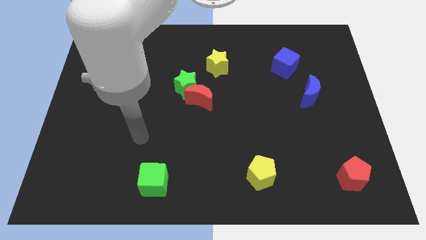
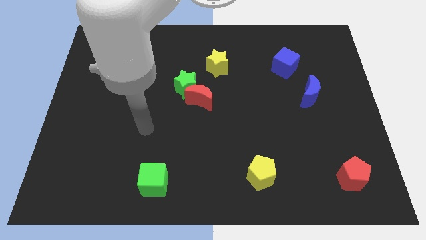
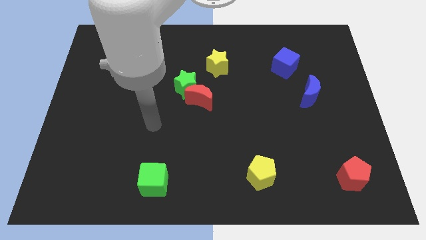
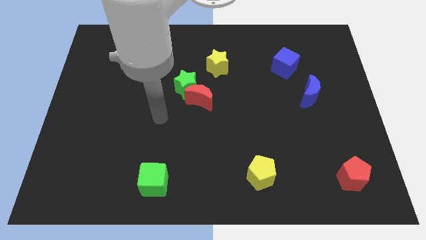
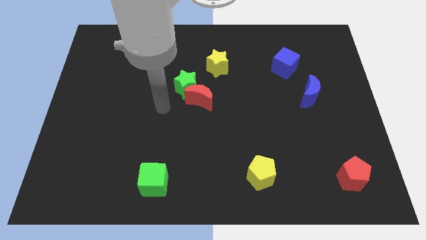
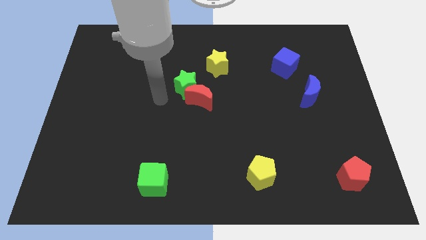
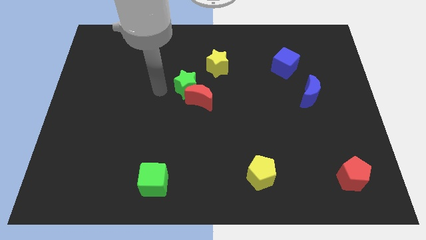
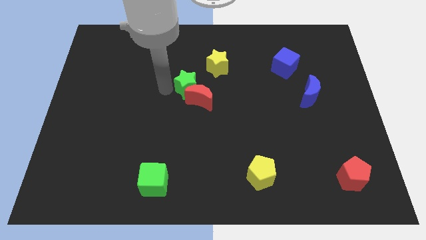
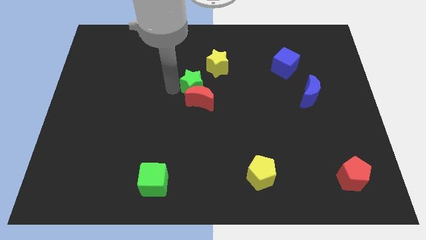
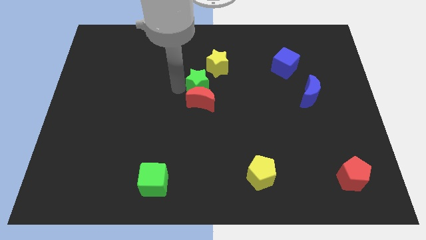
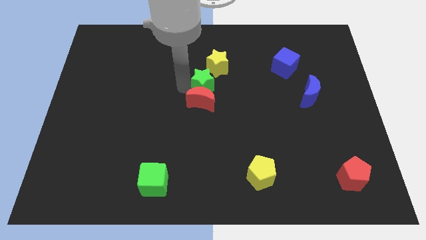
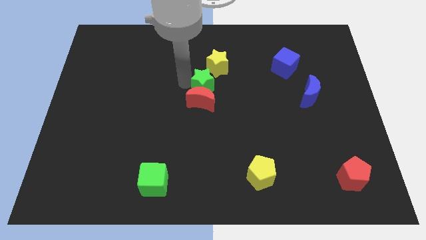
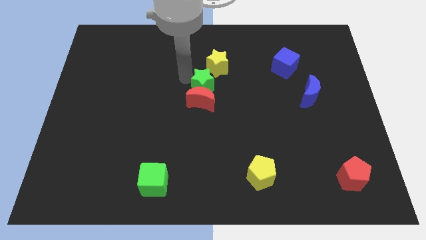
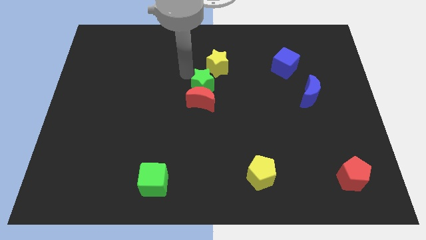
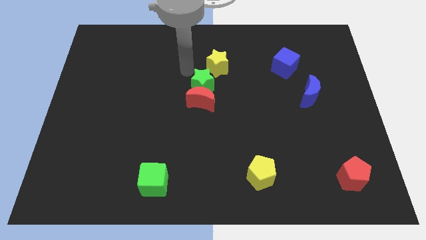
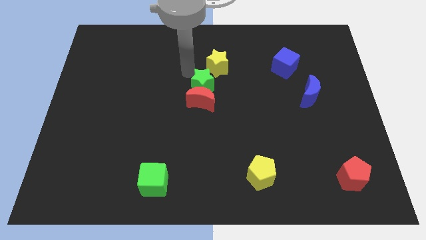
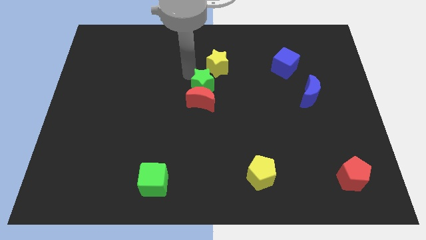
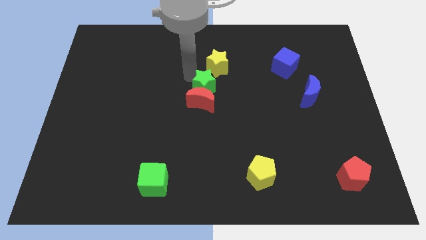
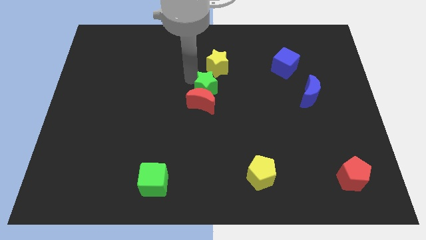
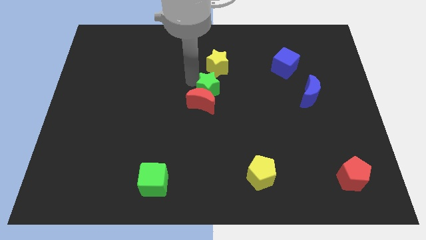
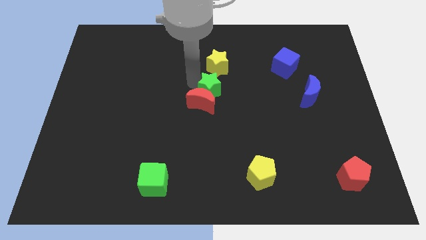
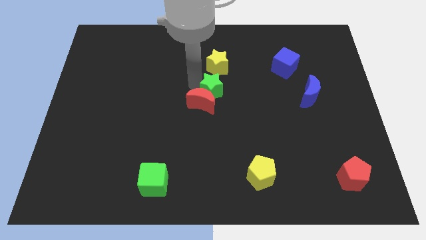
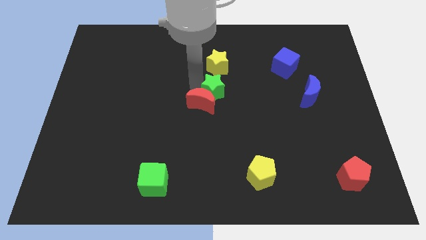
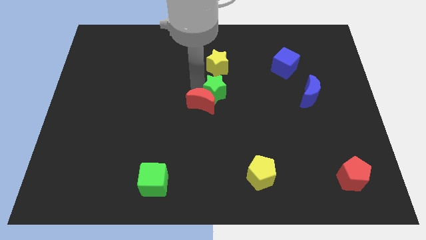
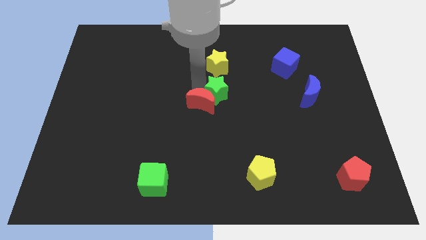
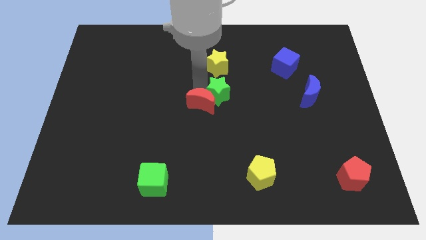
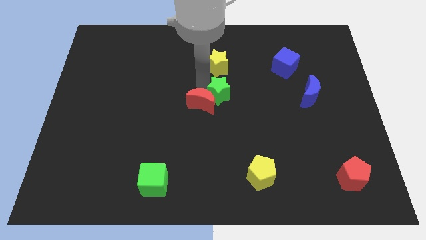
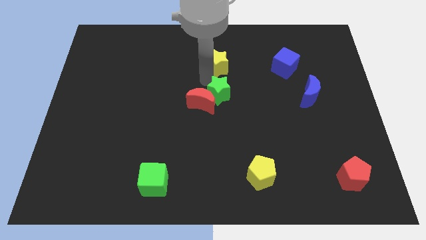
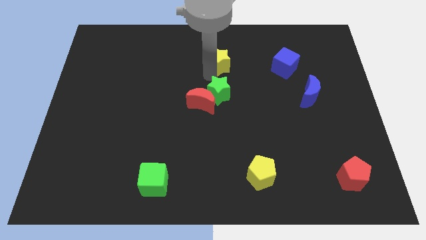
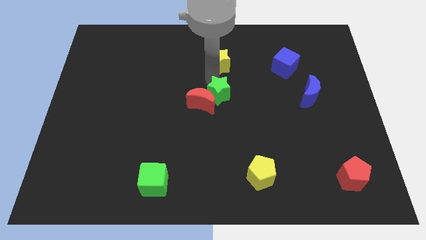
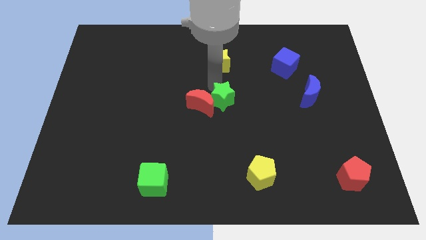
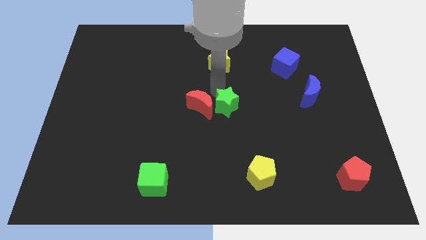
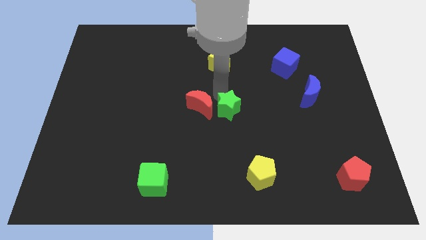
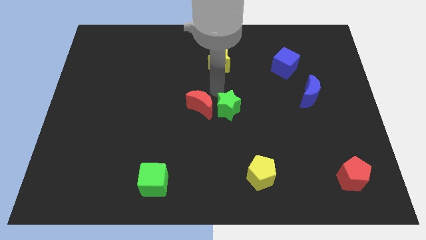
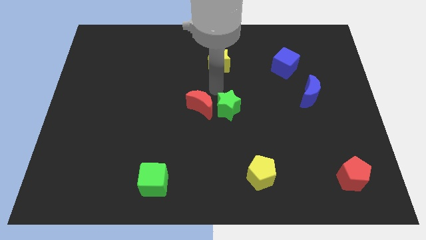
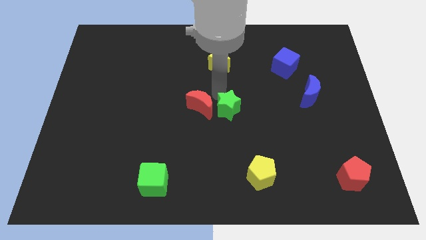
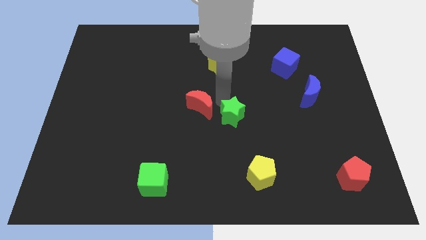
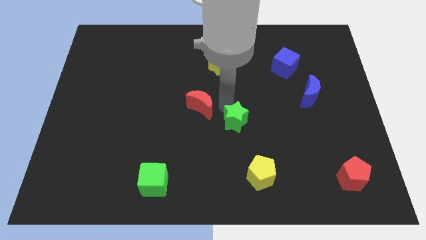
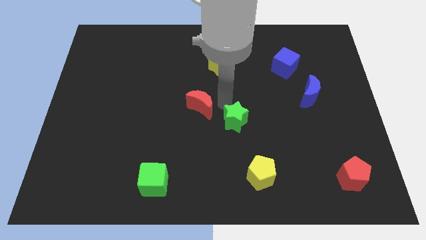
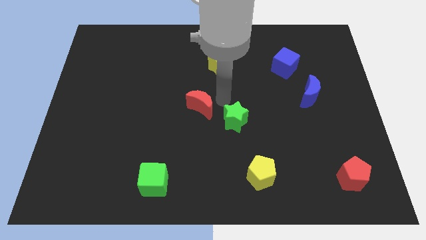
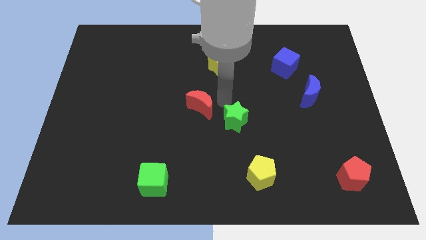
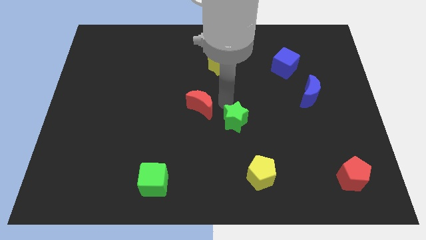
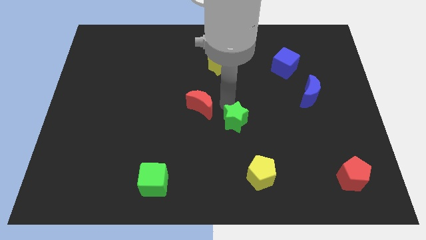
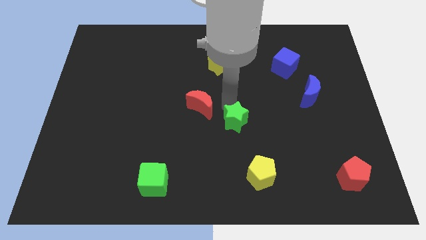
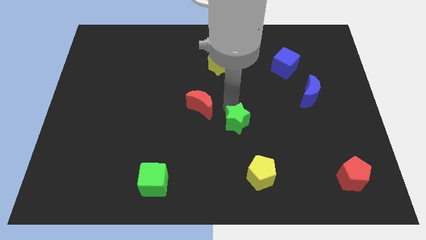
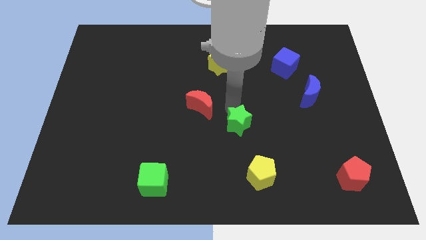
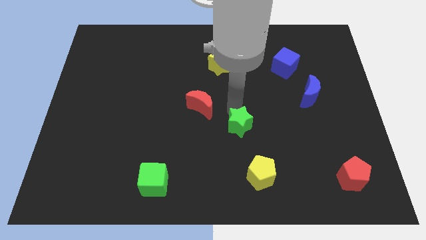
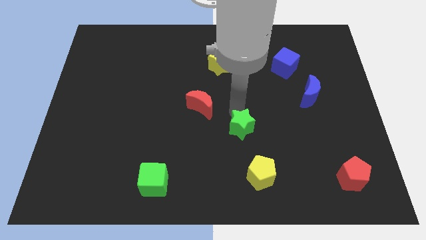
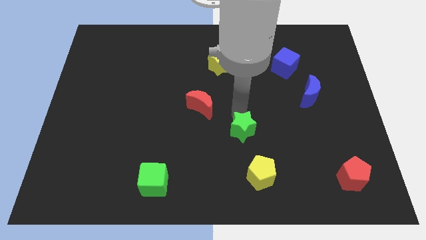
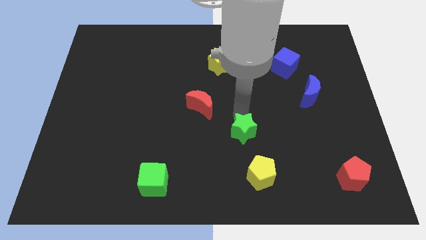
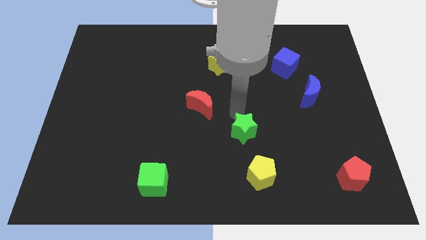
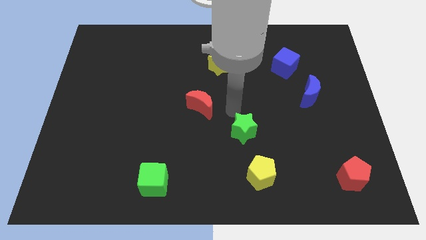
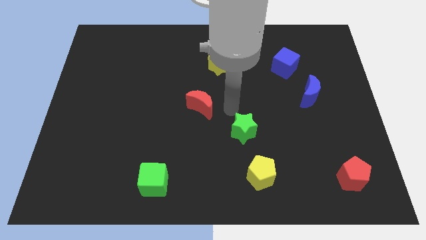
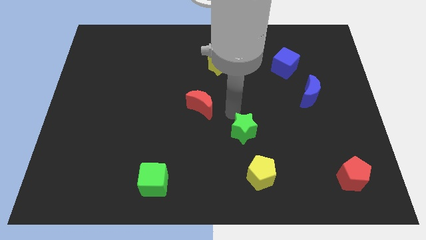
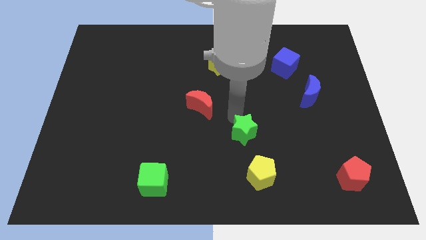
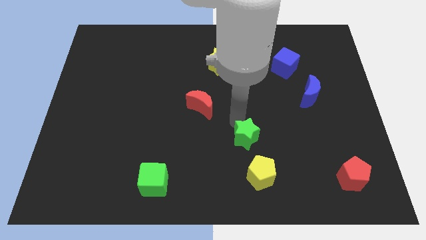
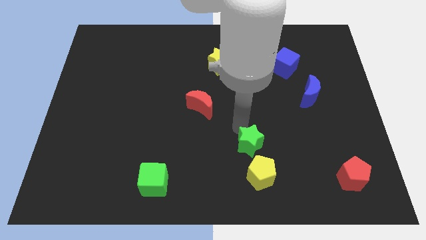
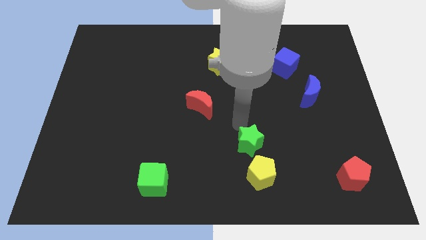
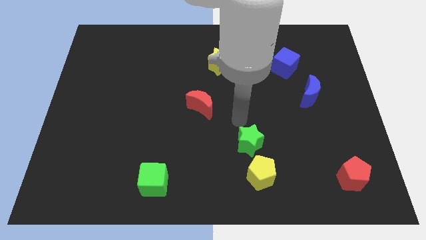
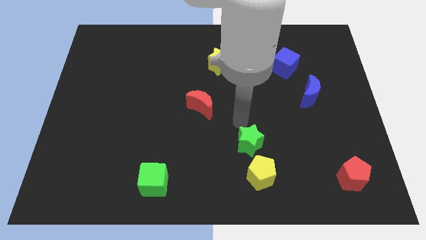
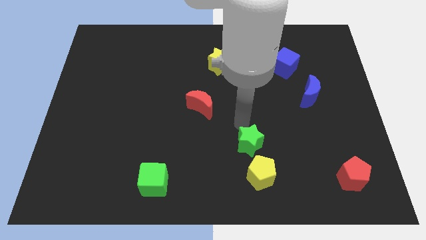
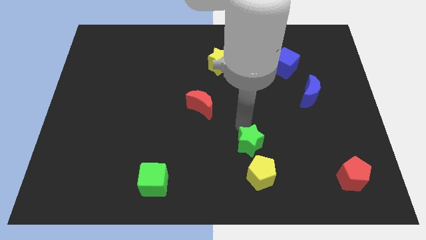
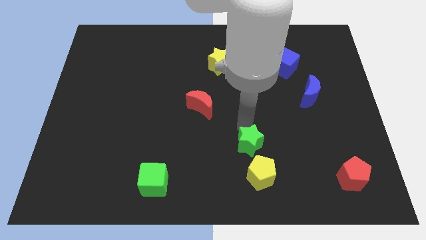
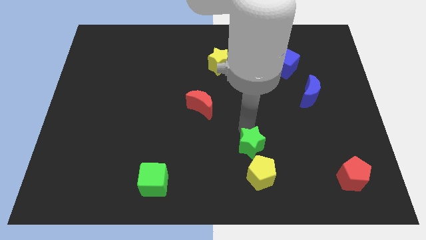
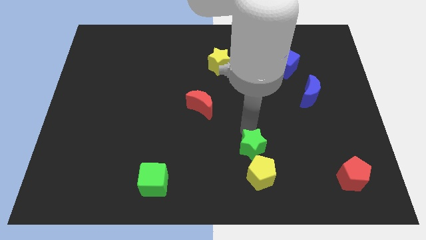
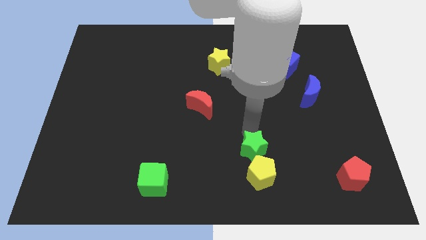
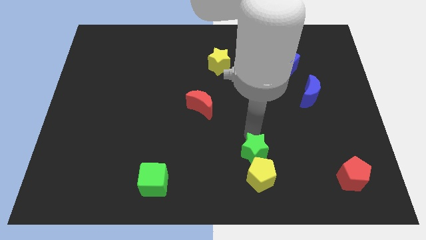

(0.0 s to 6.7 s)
slide the green star next to the yellow pentagon

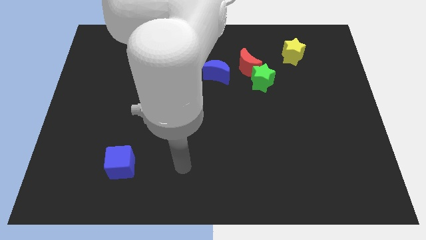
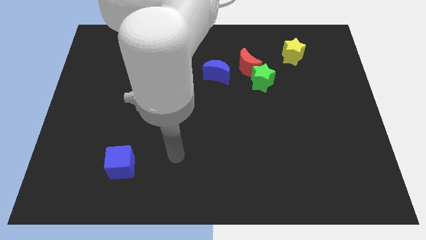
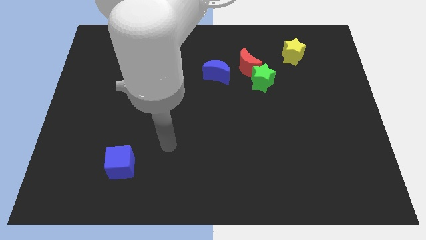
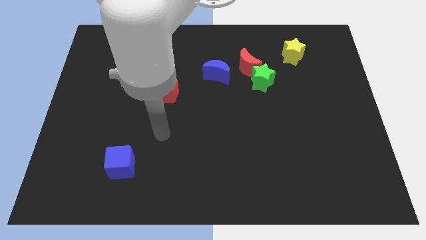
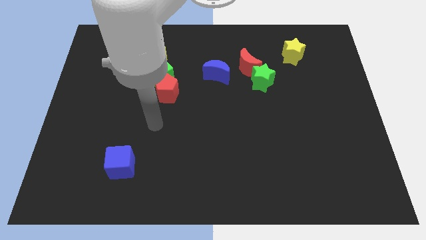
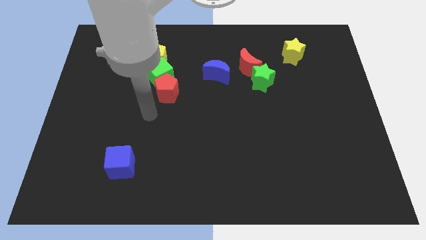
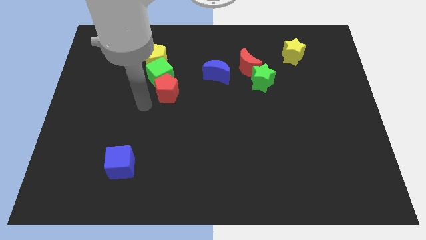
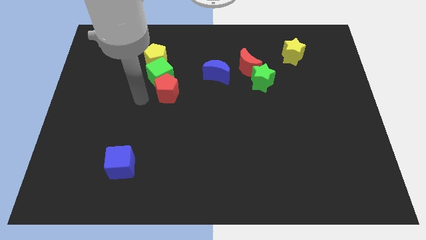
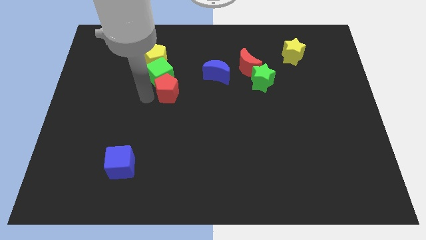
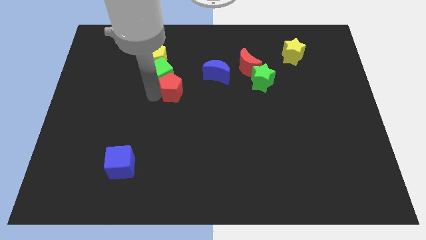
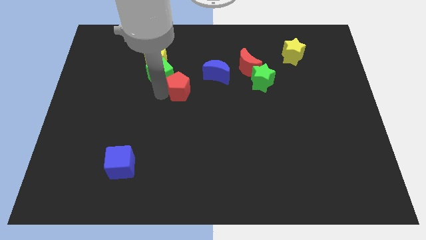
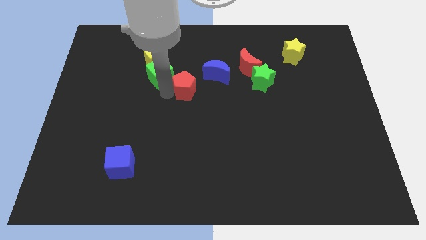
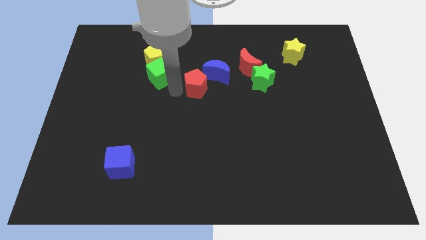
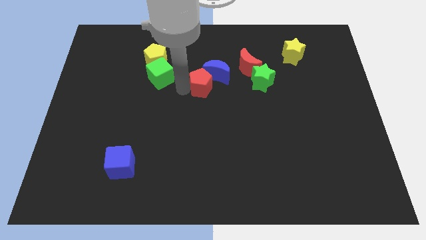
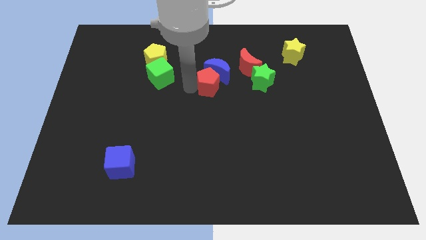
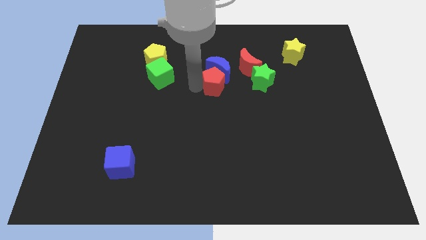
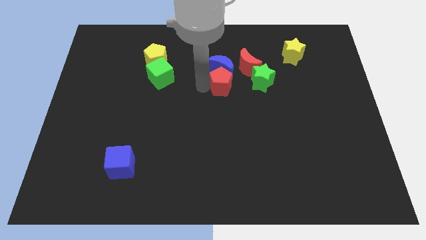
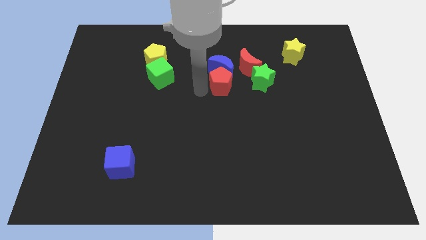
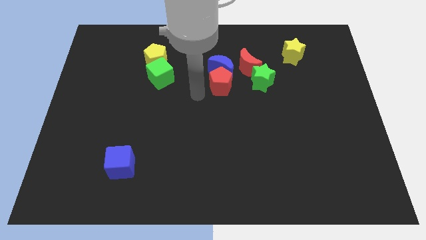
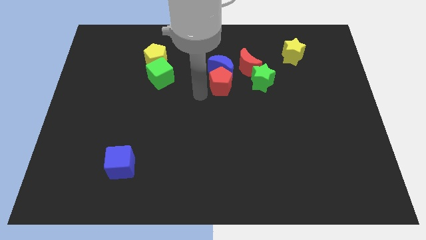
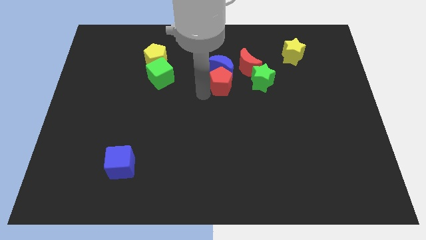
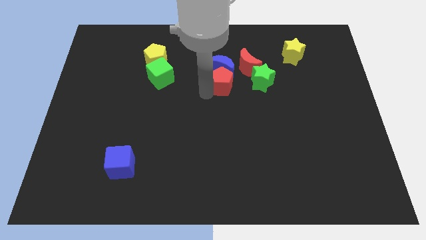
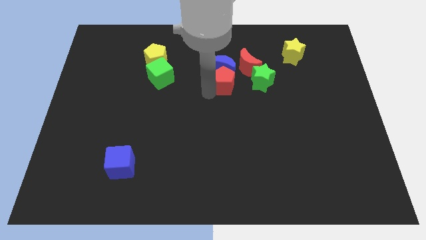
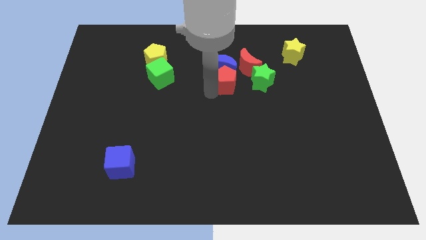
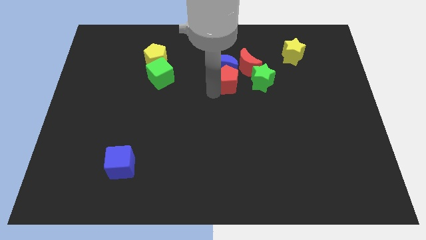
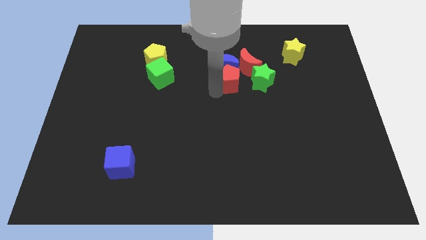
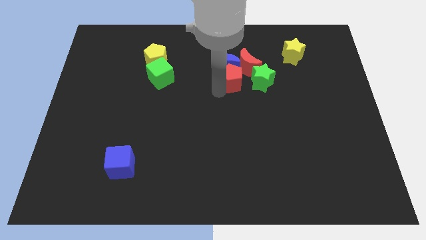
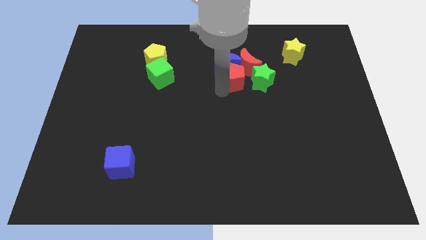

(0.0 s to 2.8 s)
move the red pentagon to the red moon
